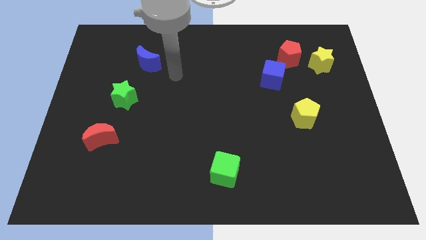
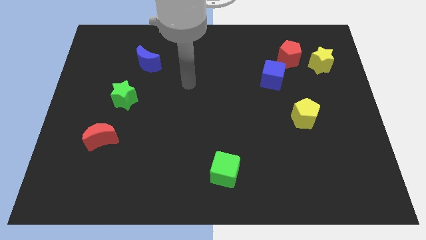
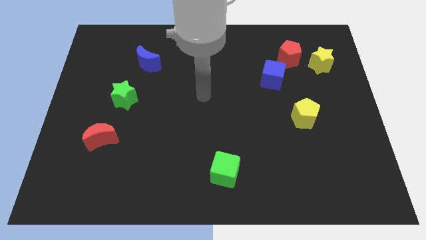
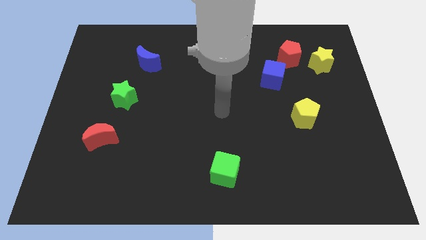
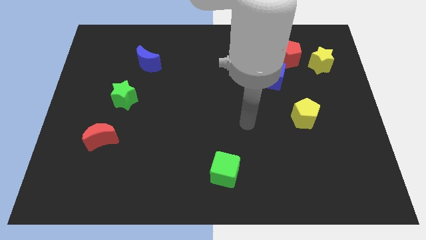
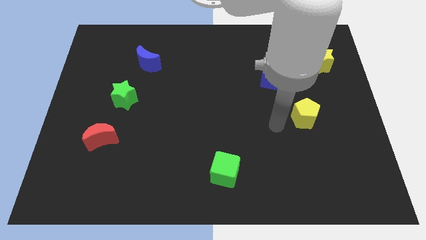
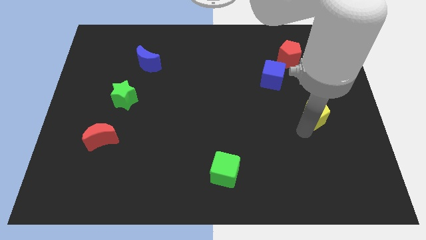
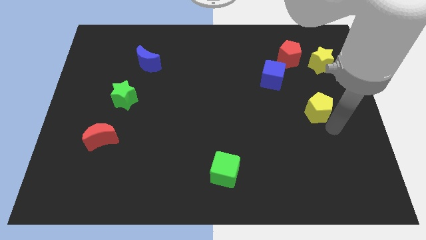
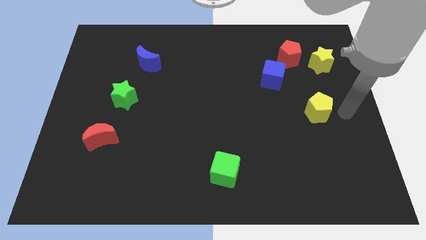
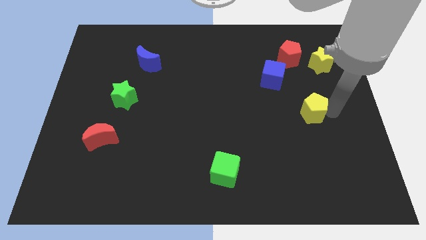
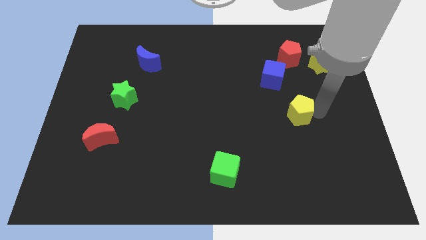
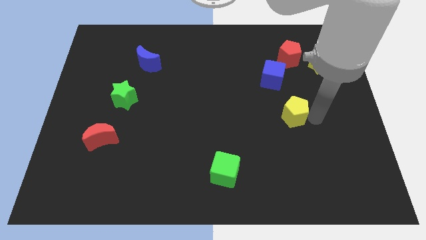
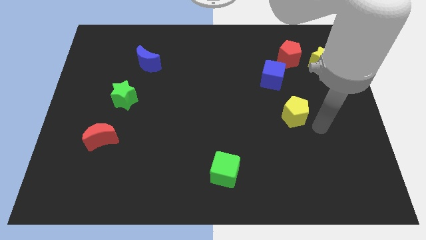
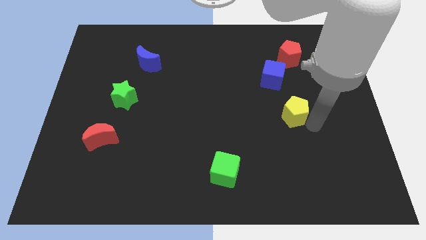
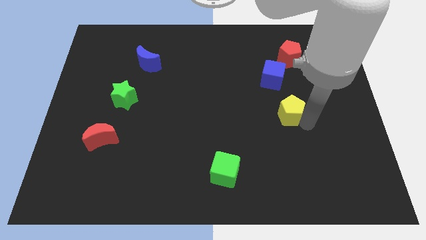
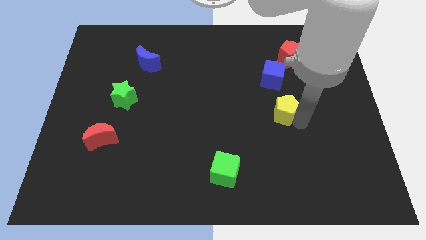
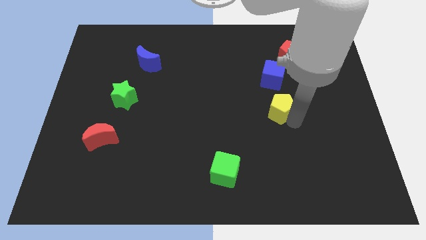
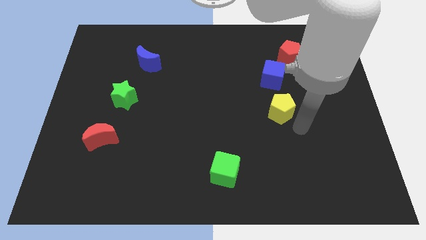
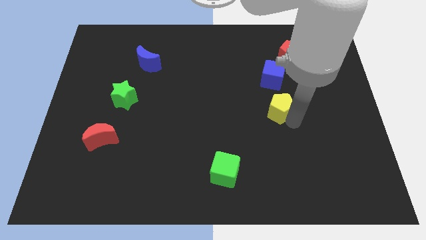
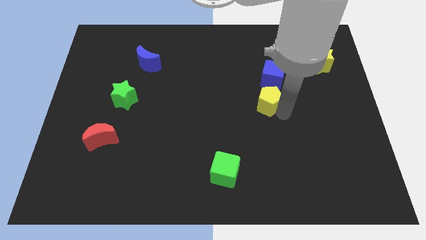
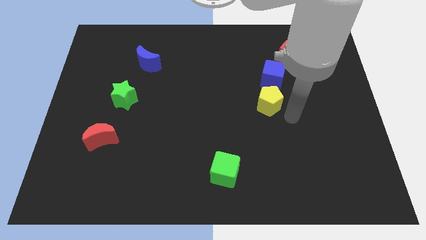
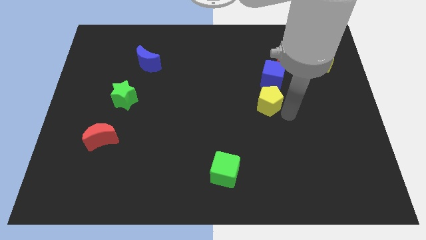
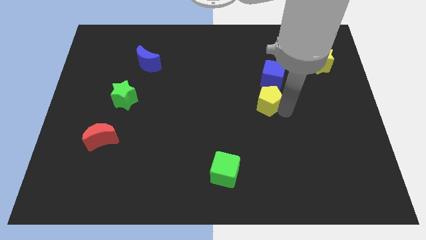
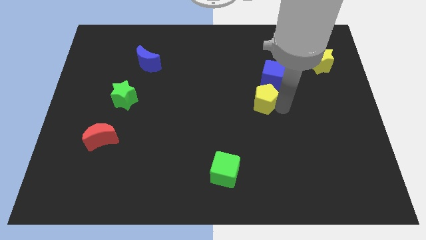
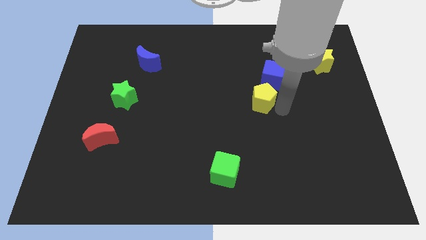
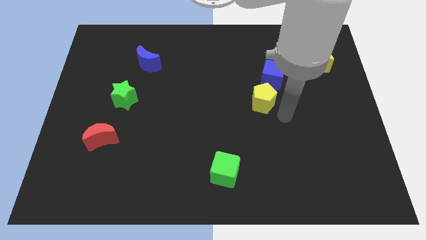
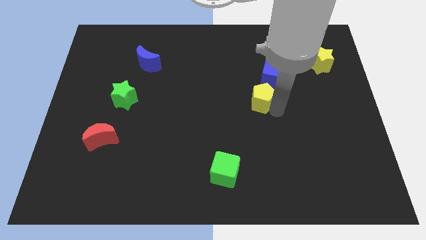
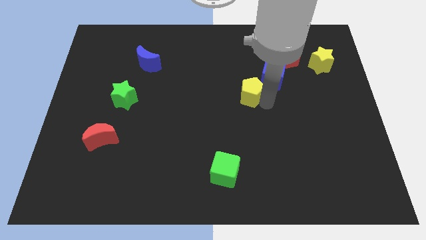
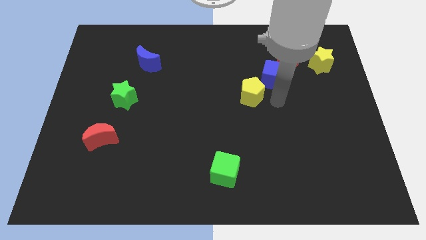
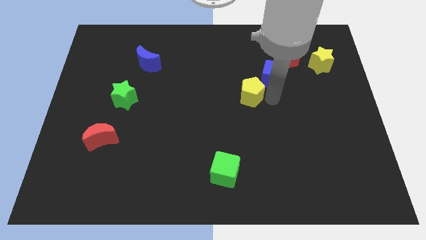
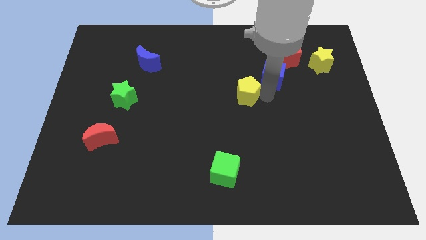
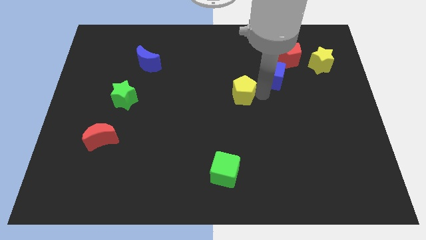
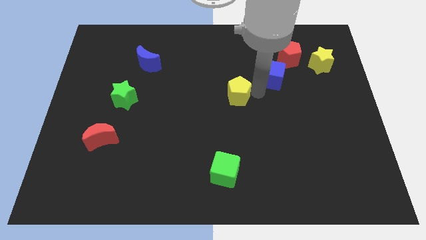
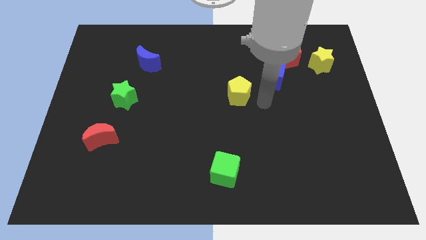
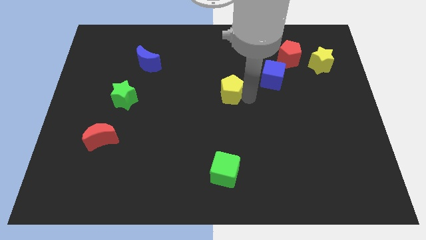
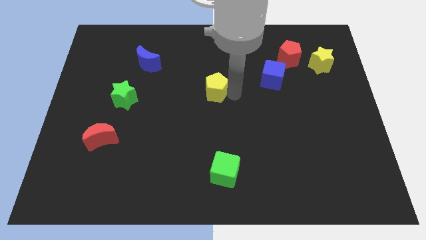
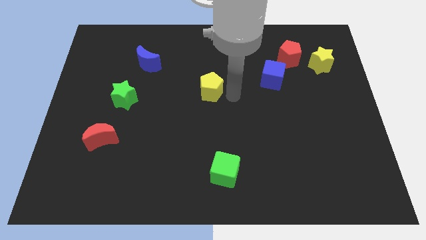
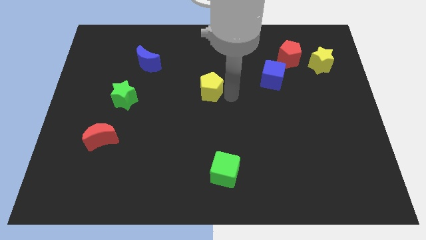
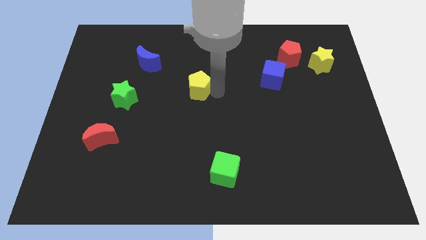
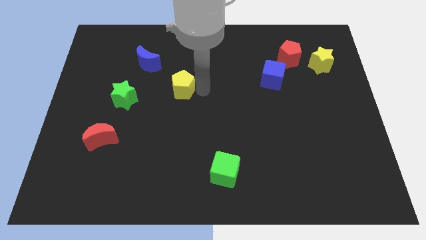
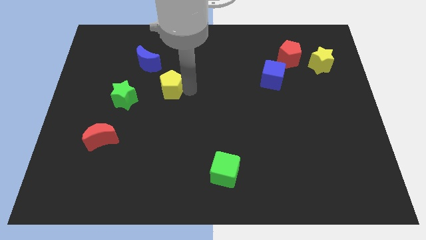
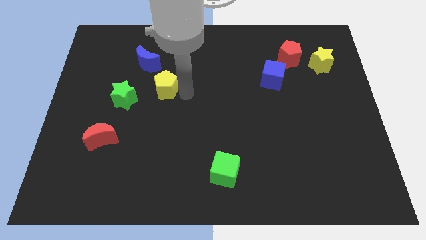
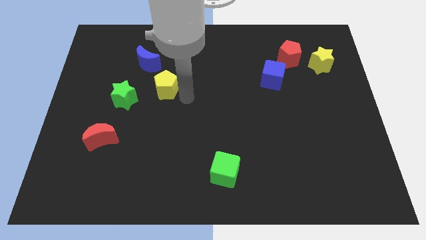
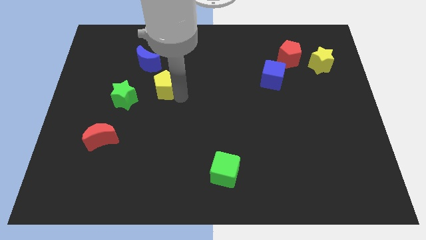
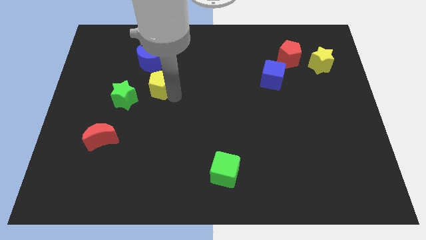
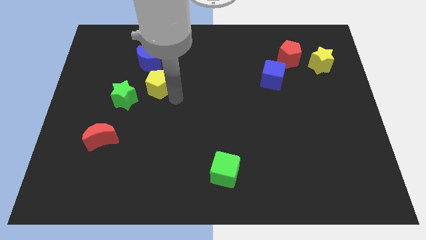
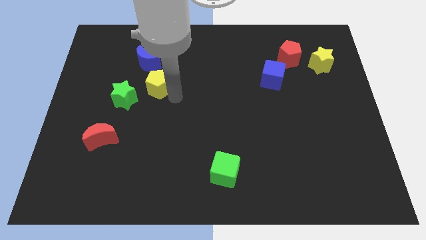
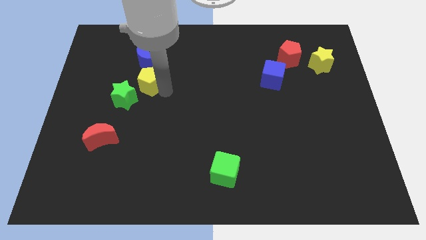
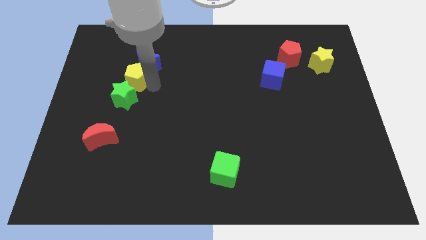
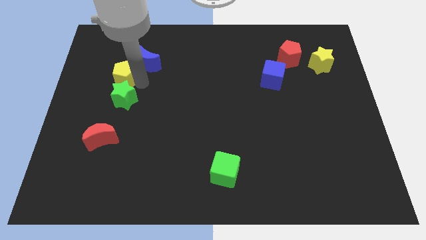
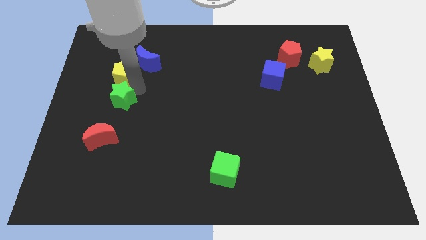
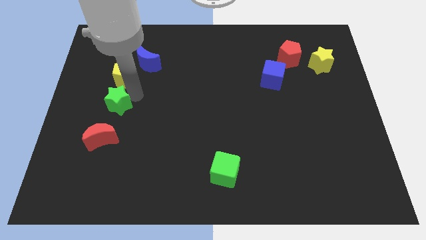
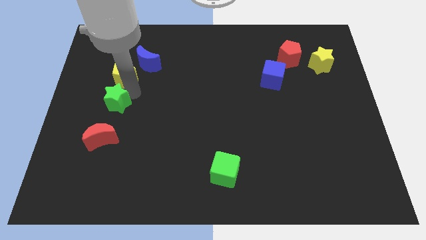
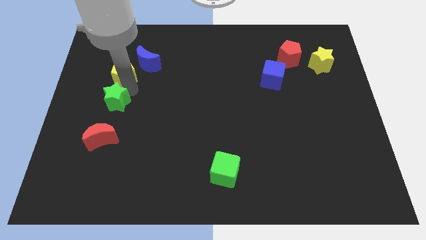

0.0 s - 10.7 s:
slide the yellow pentagon to the left of the blue moon

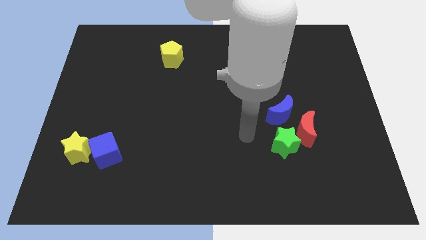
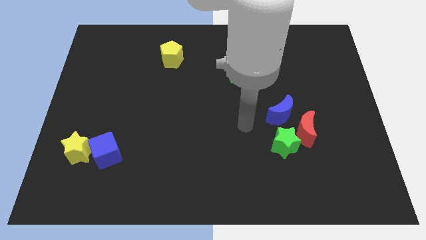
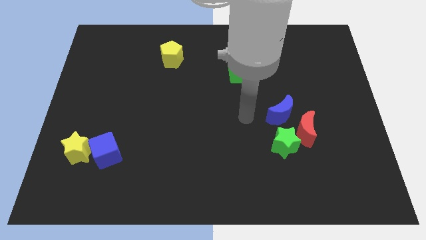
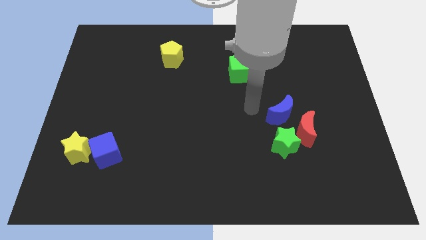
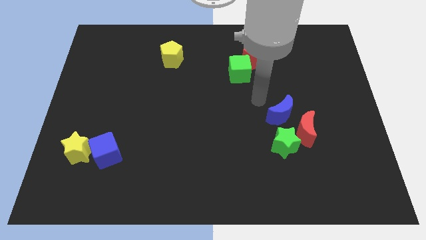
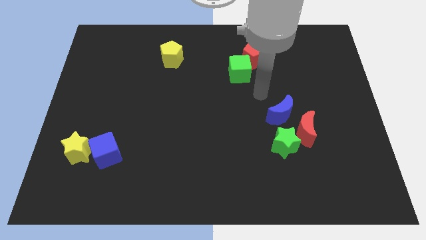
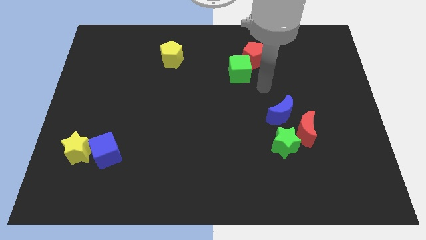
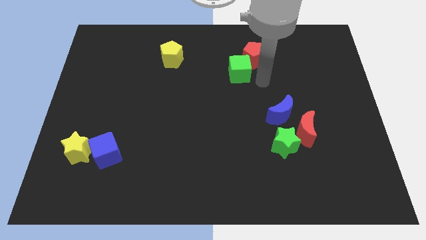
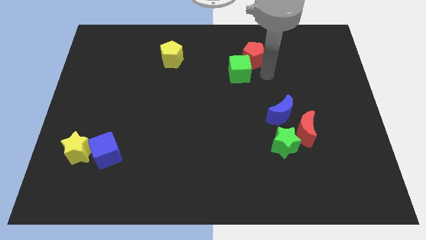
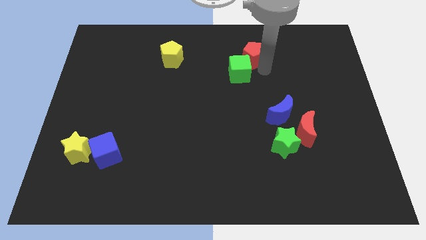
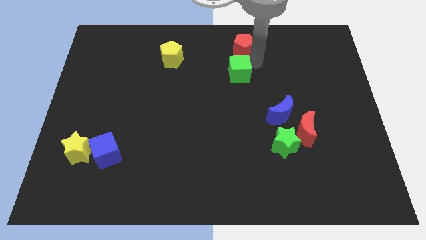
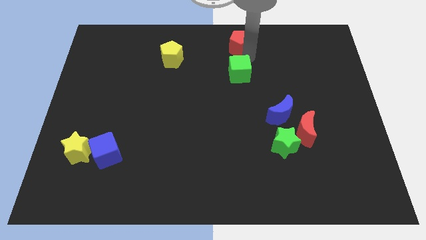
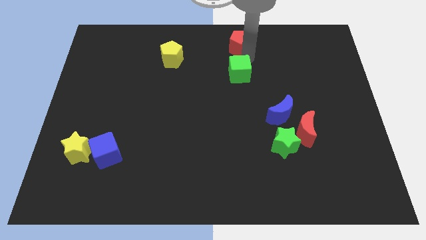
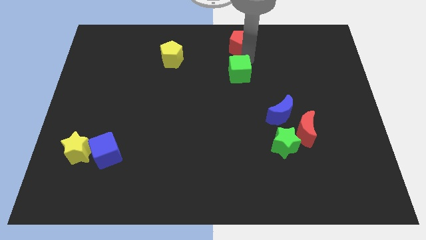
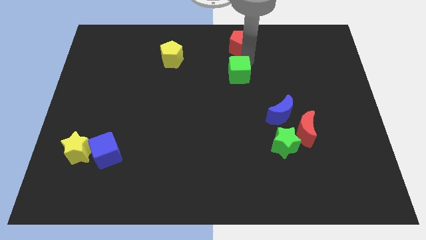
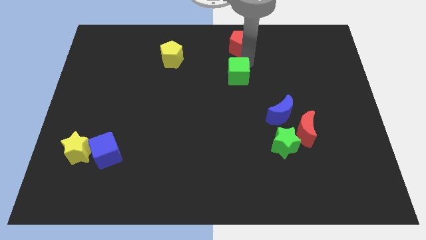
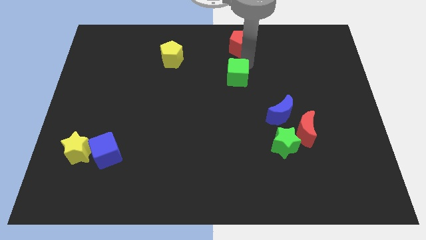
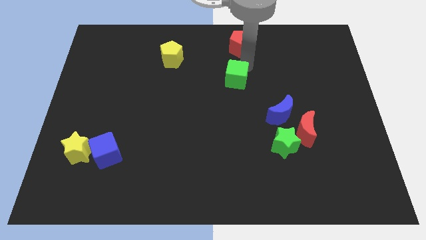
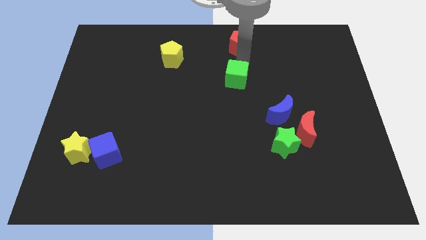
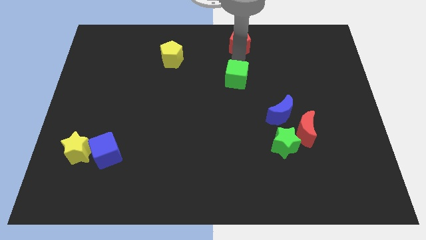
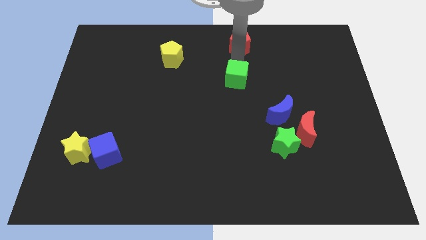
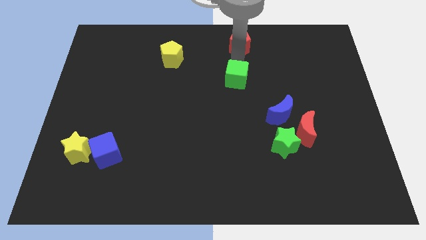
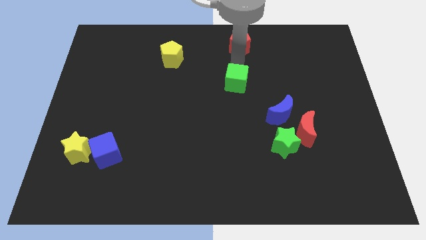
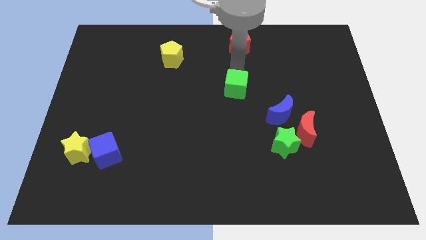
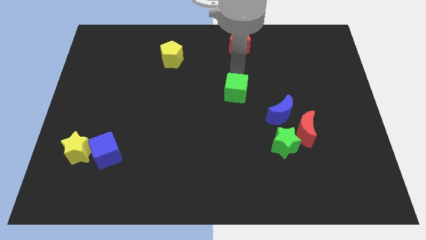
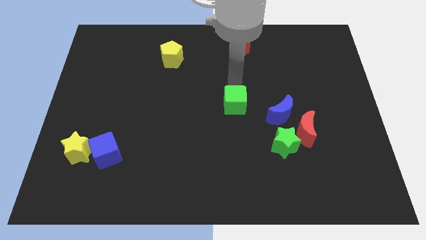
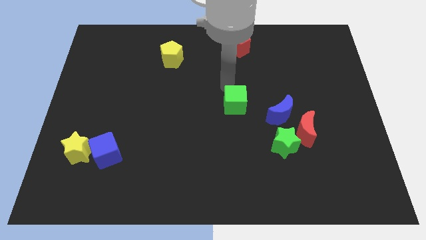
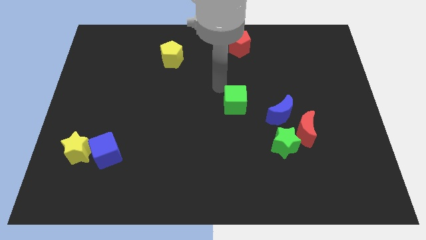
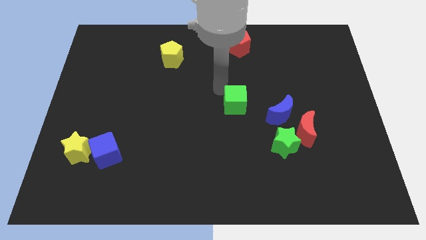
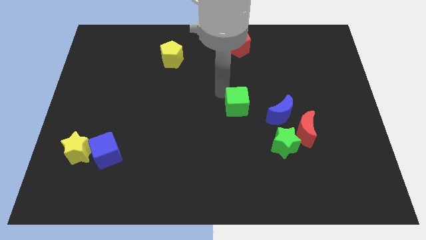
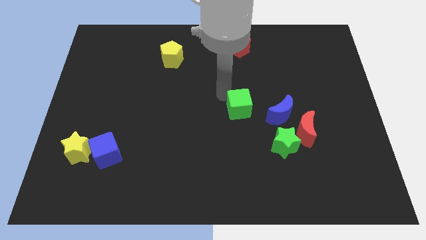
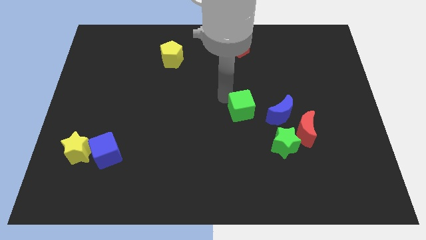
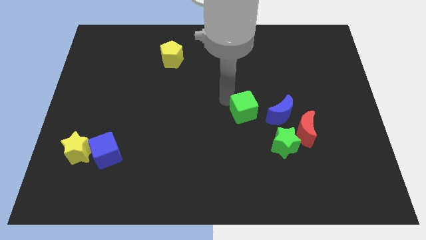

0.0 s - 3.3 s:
move the green cube diagonally up and to the left of the green star
